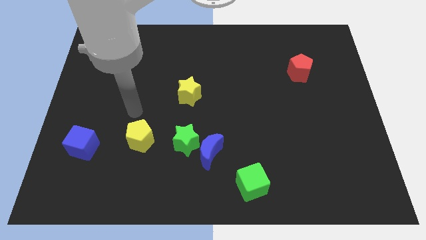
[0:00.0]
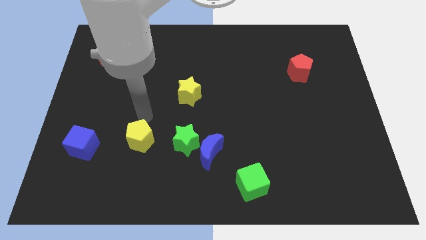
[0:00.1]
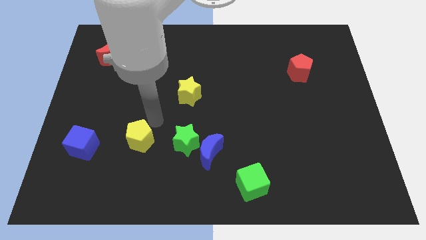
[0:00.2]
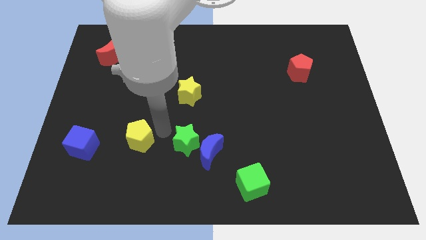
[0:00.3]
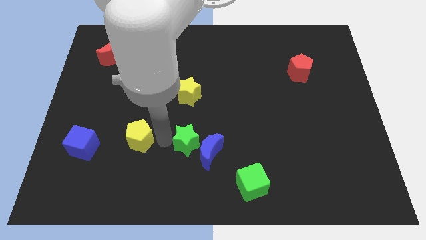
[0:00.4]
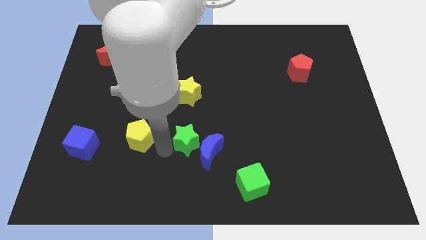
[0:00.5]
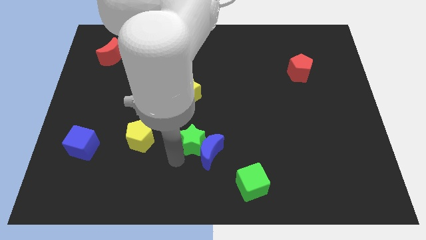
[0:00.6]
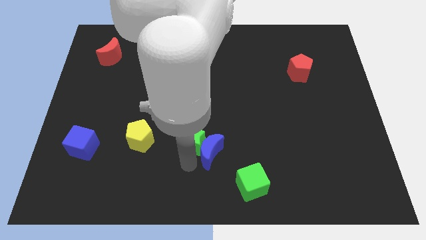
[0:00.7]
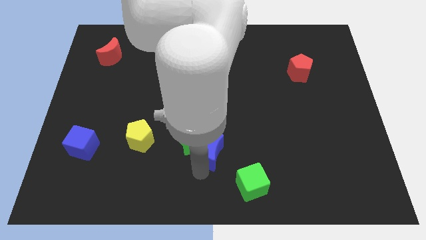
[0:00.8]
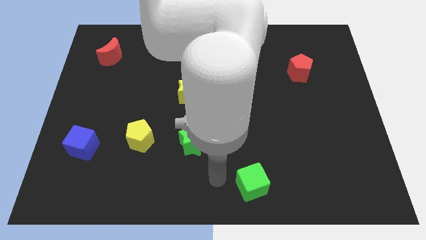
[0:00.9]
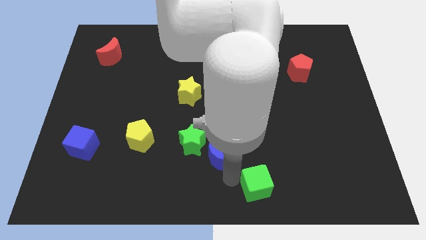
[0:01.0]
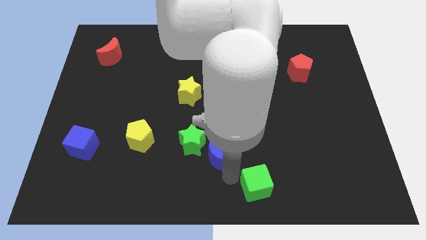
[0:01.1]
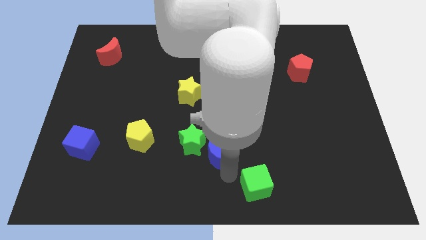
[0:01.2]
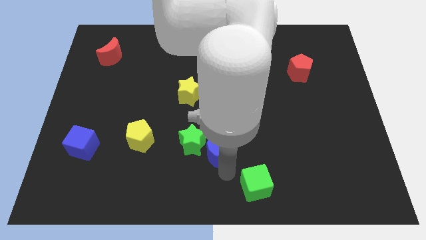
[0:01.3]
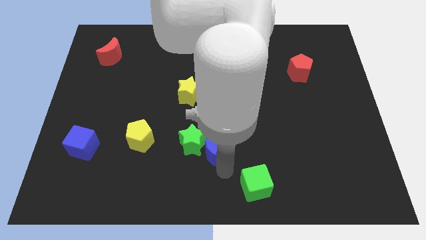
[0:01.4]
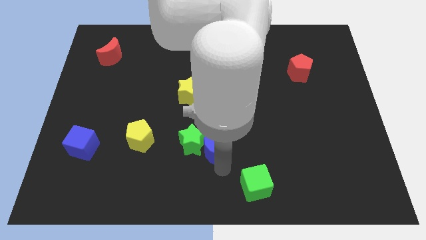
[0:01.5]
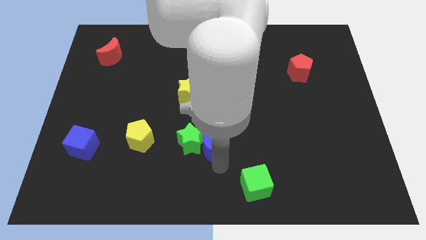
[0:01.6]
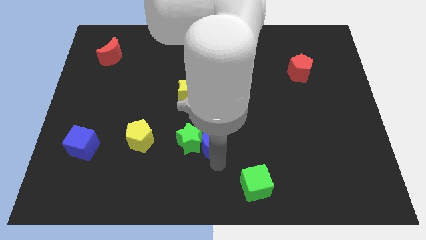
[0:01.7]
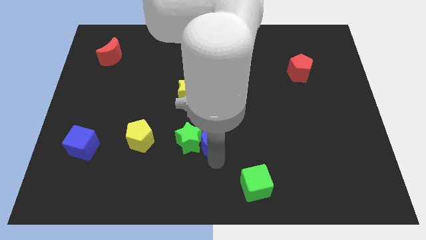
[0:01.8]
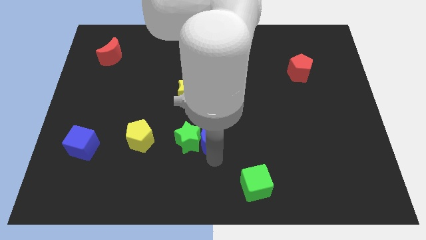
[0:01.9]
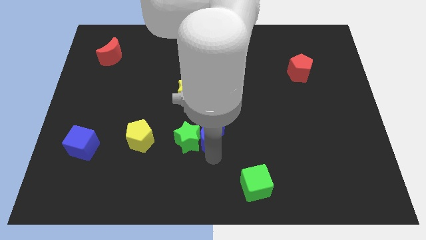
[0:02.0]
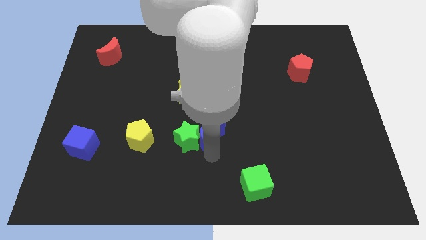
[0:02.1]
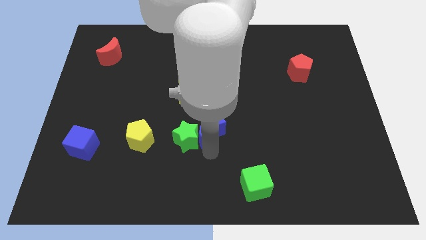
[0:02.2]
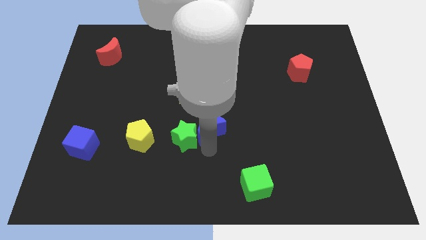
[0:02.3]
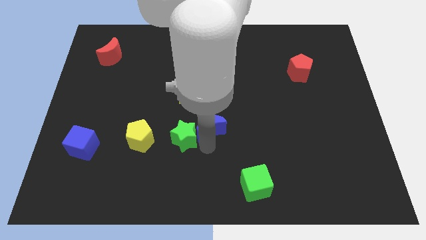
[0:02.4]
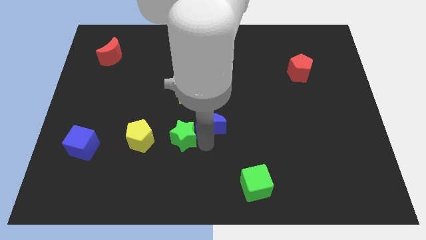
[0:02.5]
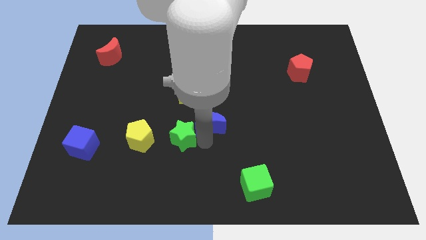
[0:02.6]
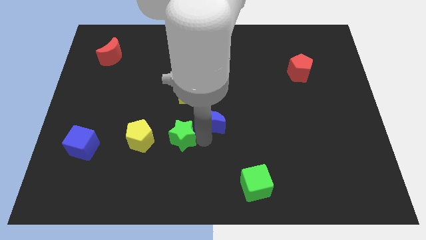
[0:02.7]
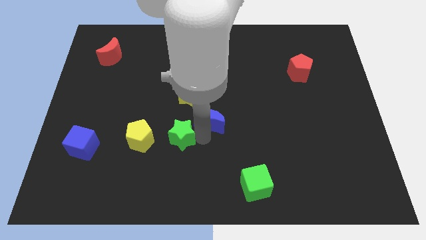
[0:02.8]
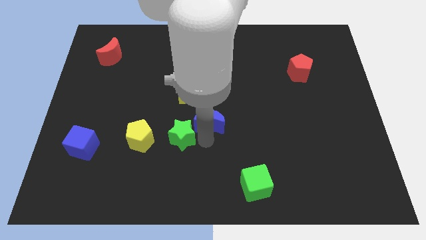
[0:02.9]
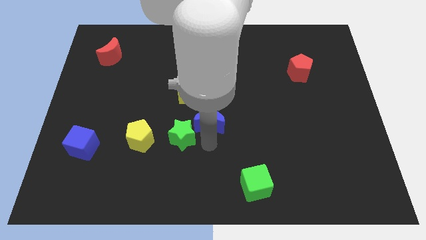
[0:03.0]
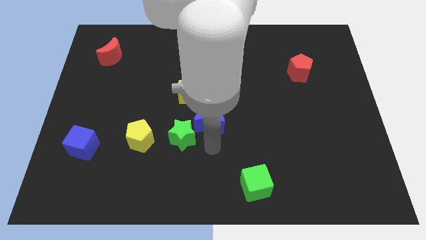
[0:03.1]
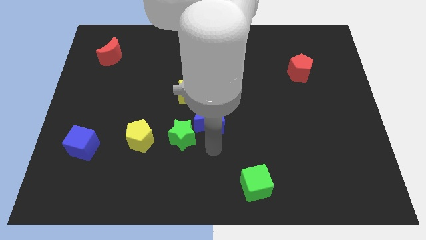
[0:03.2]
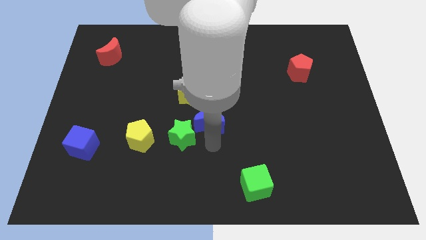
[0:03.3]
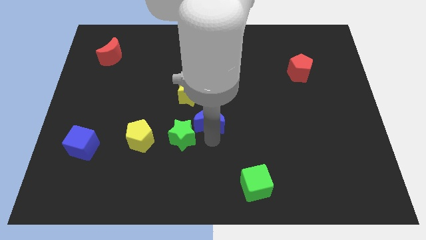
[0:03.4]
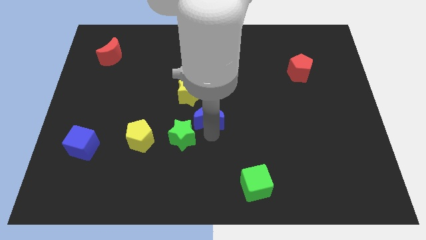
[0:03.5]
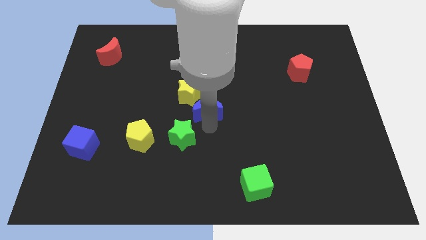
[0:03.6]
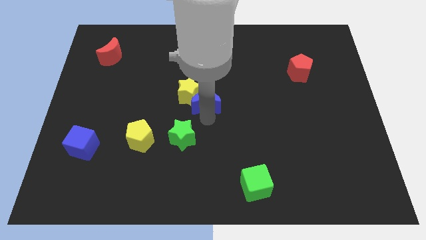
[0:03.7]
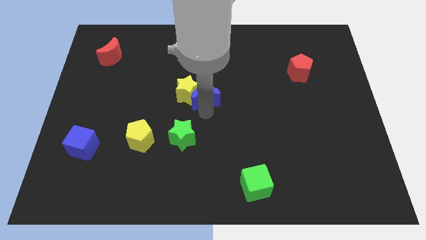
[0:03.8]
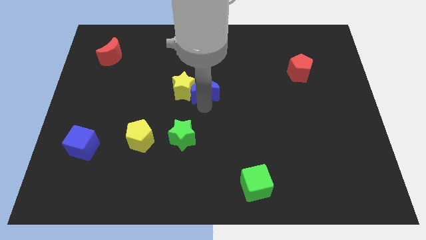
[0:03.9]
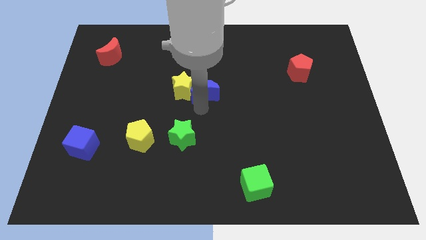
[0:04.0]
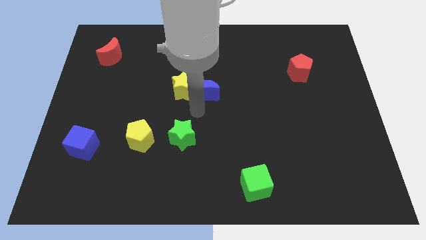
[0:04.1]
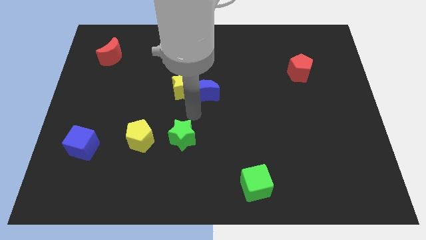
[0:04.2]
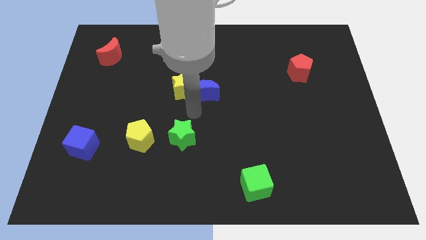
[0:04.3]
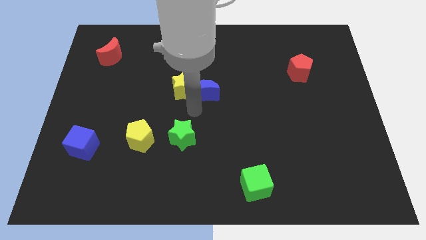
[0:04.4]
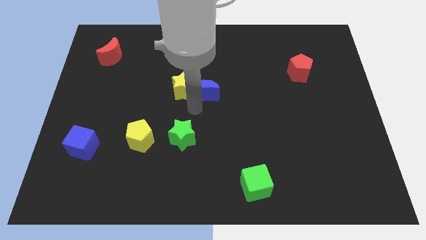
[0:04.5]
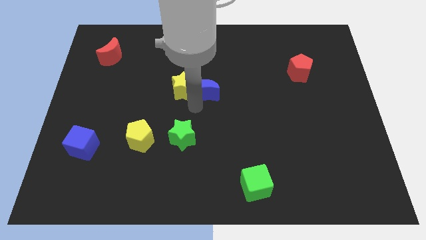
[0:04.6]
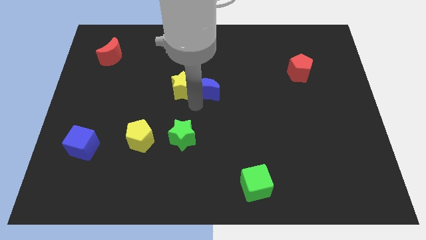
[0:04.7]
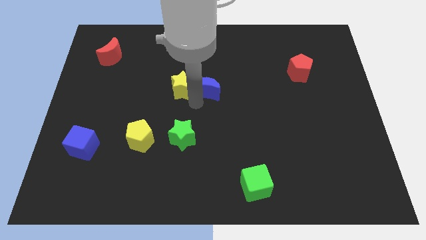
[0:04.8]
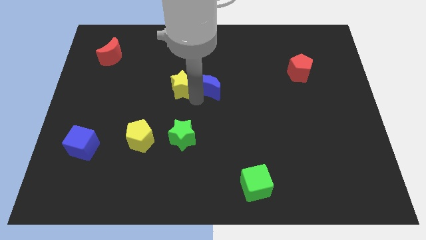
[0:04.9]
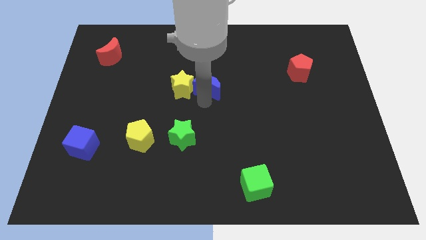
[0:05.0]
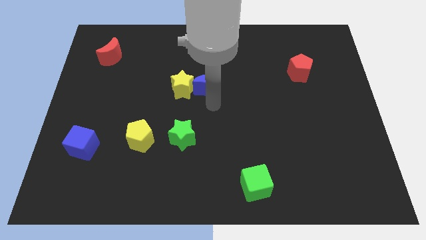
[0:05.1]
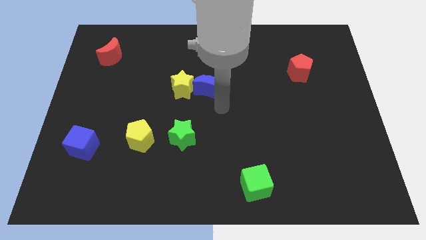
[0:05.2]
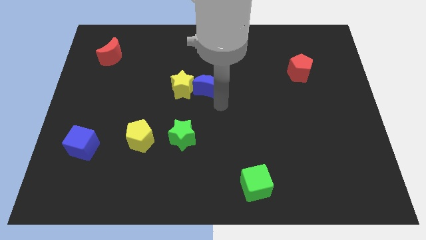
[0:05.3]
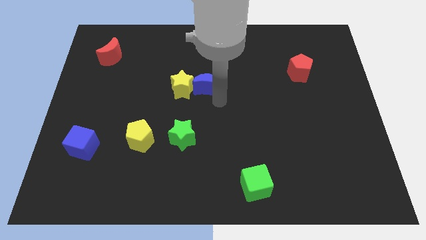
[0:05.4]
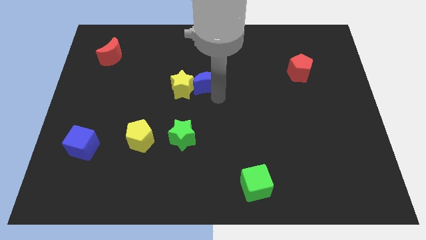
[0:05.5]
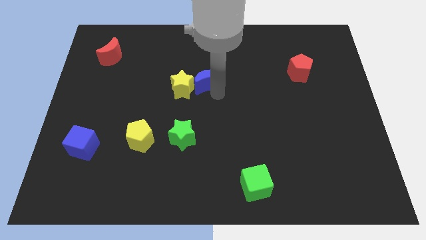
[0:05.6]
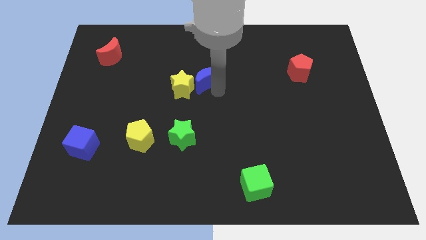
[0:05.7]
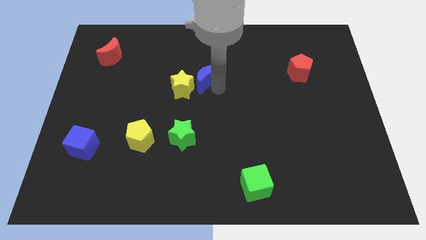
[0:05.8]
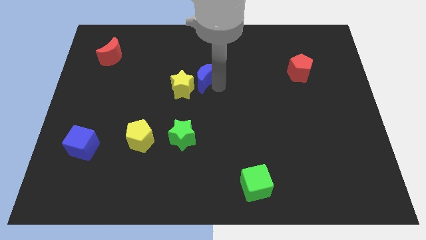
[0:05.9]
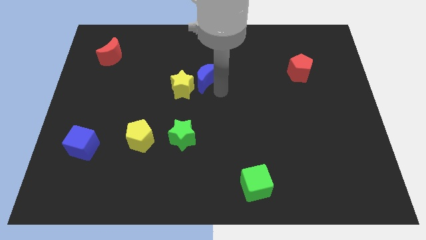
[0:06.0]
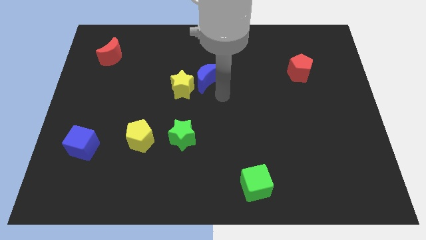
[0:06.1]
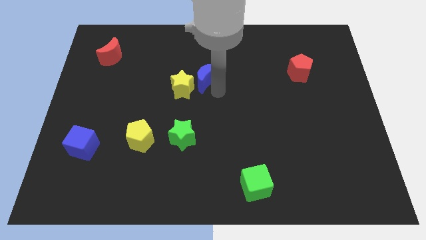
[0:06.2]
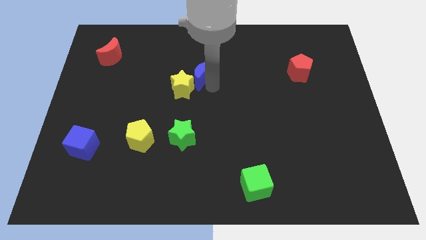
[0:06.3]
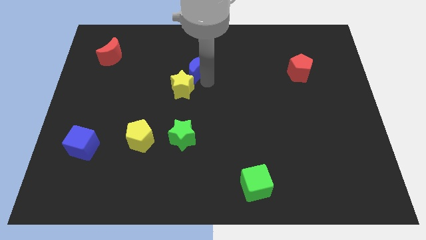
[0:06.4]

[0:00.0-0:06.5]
push the blue moon to the top of the yellow star

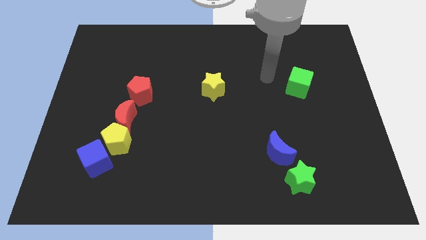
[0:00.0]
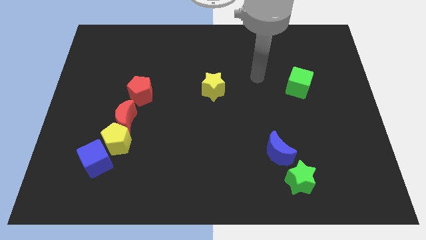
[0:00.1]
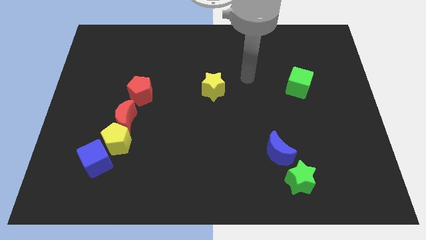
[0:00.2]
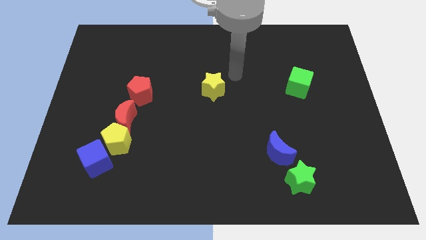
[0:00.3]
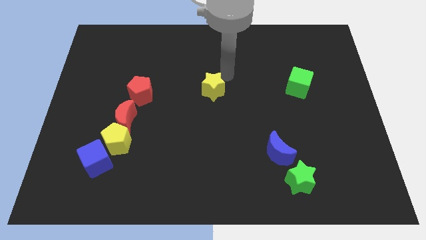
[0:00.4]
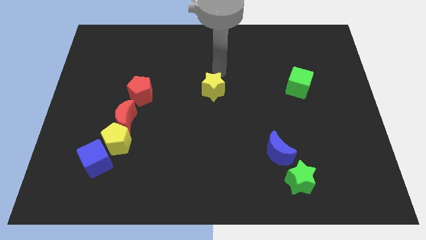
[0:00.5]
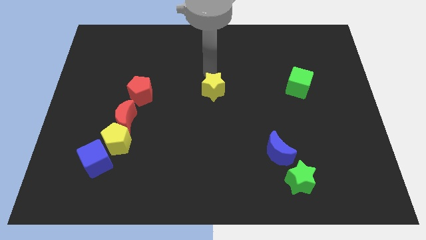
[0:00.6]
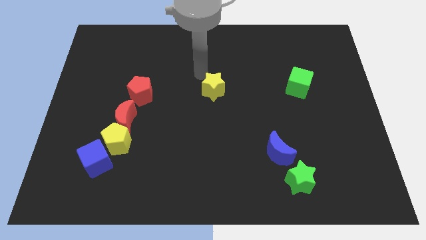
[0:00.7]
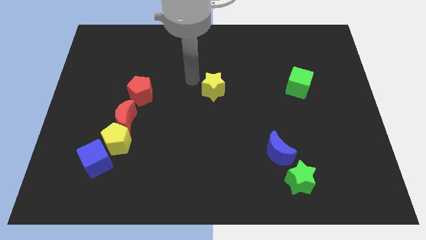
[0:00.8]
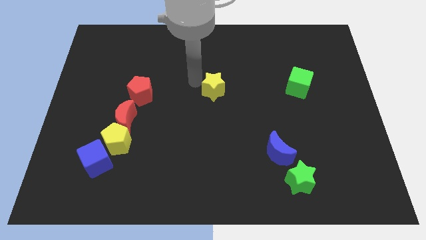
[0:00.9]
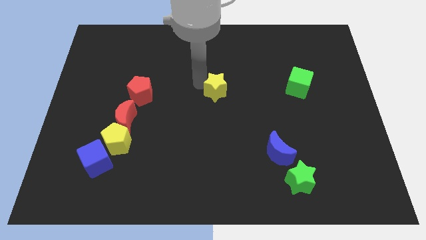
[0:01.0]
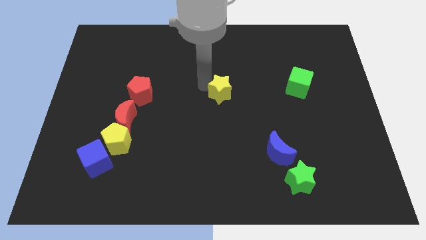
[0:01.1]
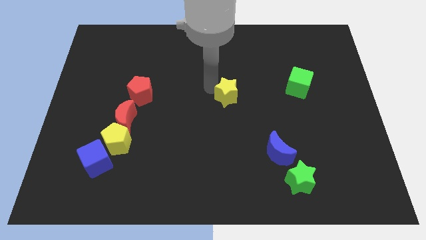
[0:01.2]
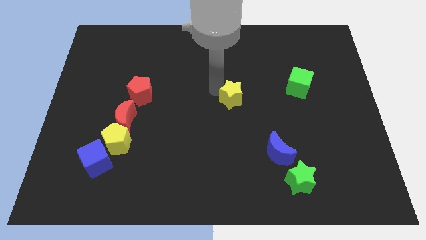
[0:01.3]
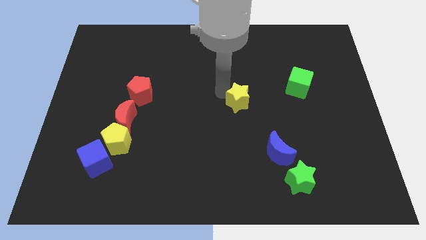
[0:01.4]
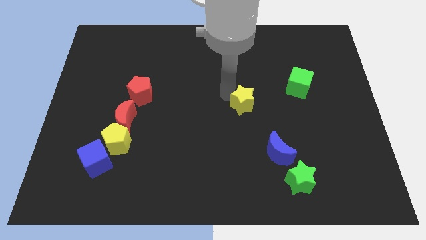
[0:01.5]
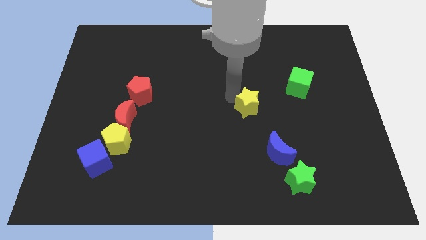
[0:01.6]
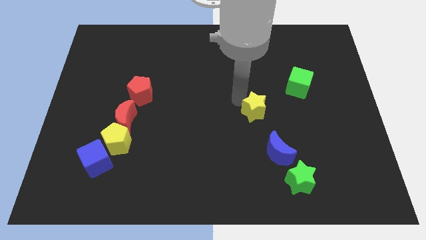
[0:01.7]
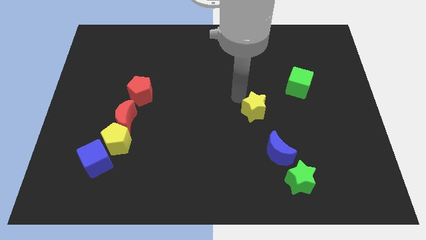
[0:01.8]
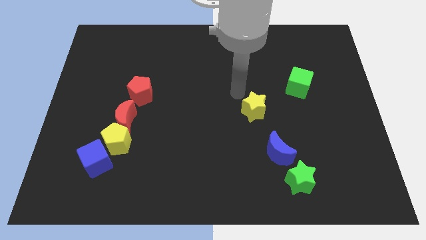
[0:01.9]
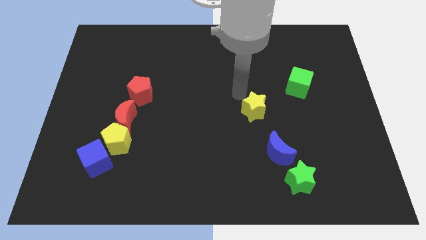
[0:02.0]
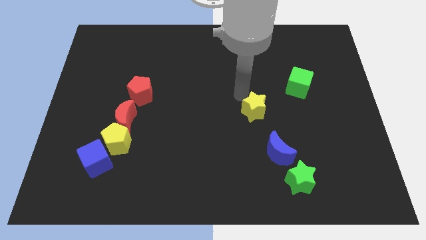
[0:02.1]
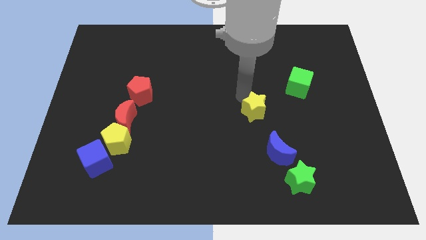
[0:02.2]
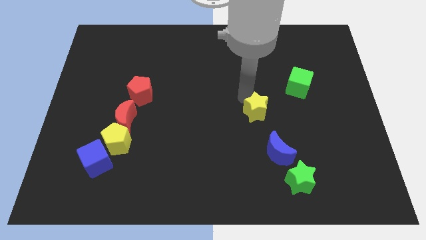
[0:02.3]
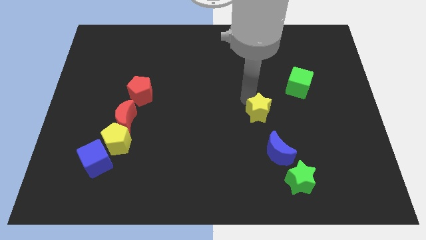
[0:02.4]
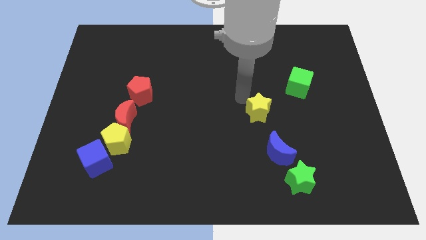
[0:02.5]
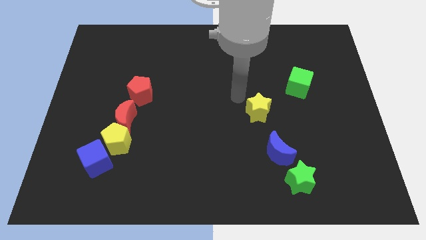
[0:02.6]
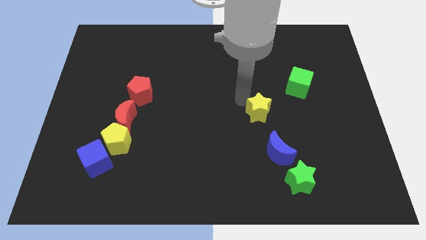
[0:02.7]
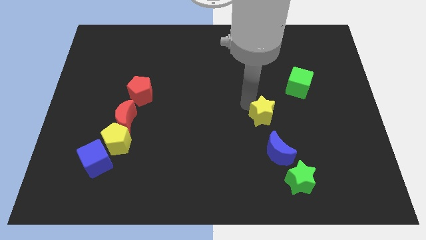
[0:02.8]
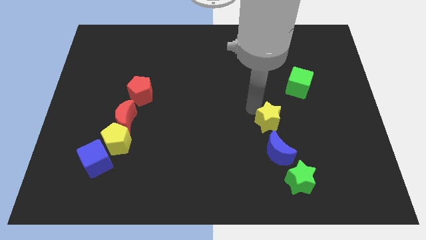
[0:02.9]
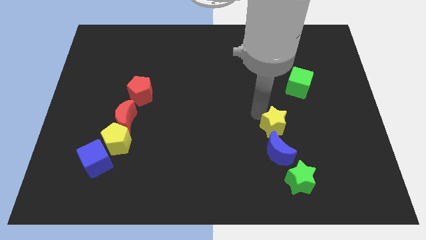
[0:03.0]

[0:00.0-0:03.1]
put the yellow star to the top right side of the blue moon
